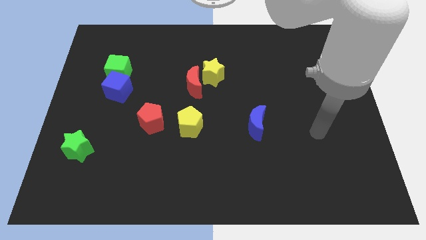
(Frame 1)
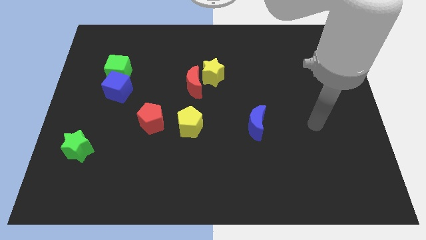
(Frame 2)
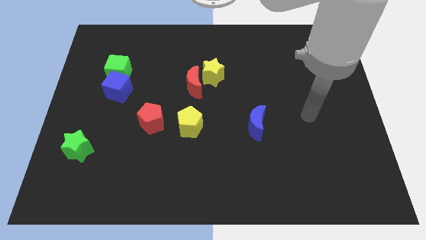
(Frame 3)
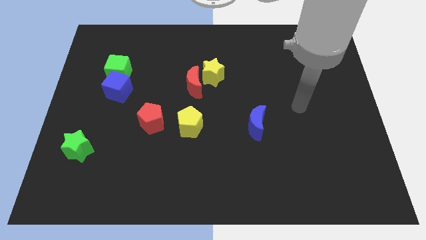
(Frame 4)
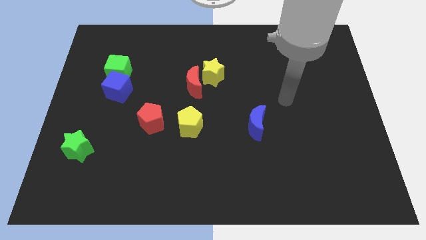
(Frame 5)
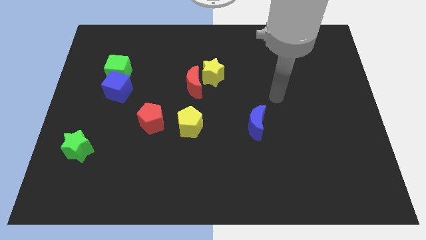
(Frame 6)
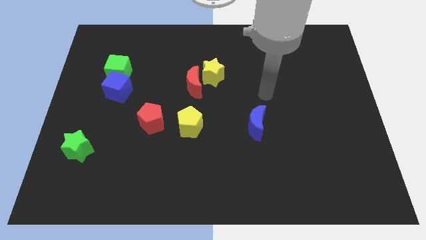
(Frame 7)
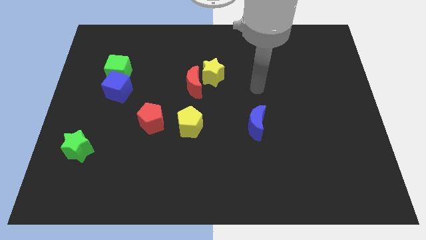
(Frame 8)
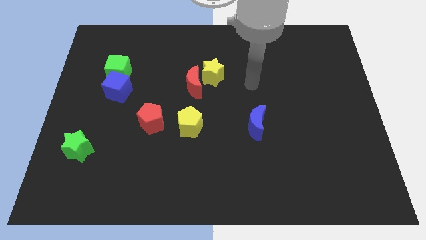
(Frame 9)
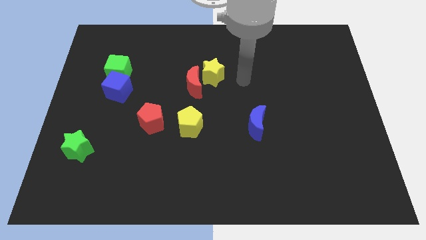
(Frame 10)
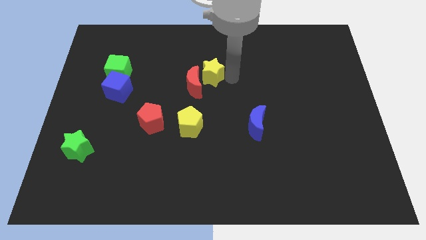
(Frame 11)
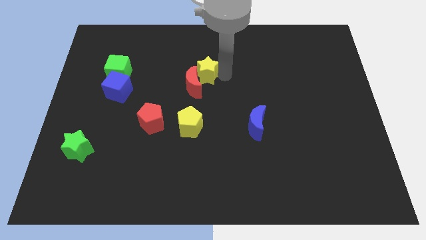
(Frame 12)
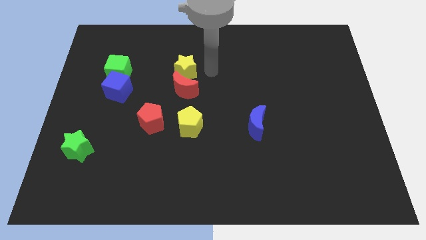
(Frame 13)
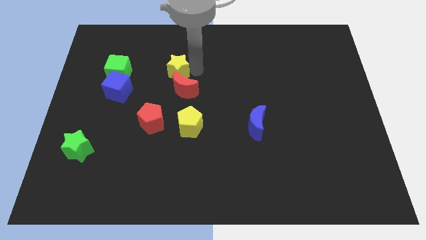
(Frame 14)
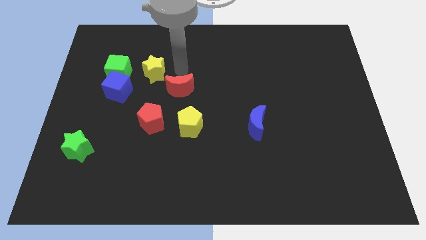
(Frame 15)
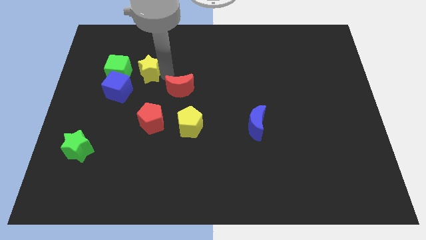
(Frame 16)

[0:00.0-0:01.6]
move the red moon away from the yellow star

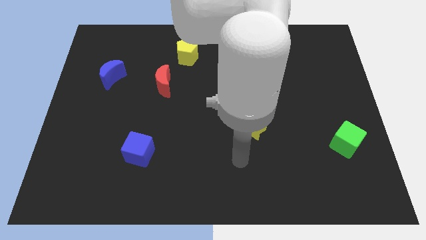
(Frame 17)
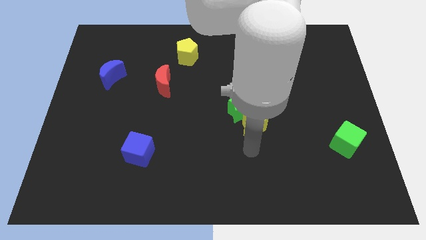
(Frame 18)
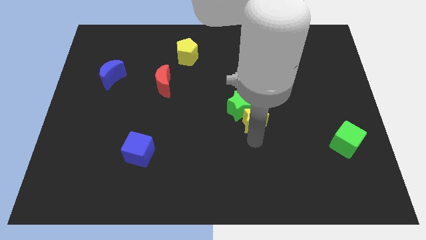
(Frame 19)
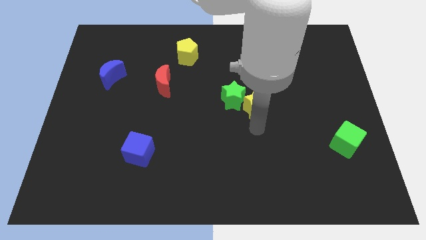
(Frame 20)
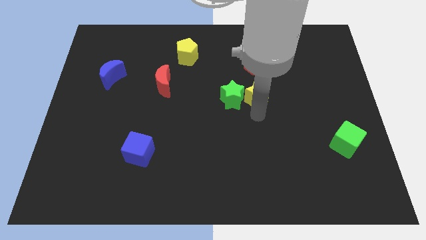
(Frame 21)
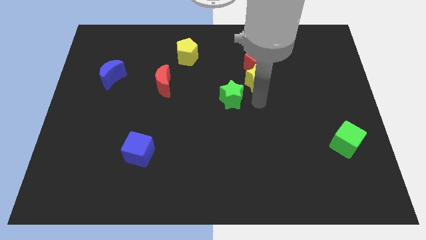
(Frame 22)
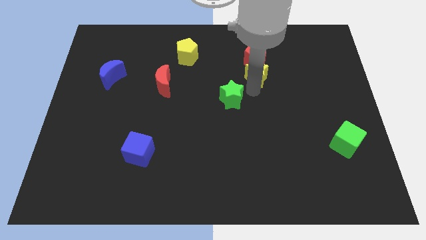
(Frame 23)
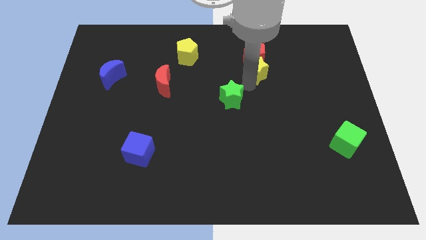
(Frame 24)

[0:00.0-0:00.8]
move the green star away from the yellow star

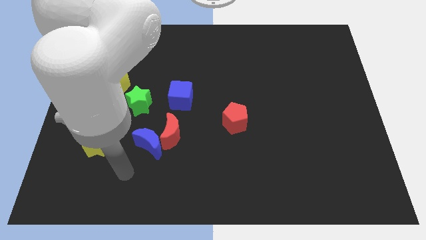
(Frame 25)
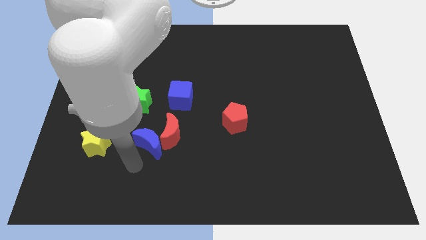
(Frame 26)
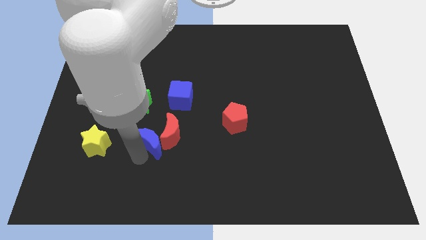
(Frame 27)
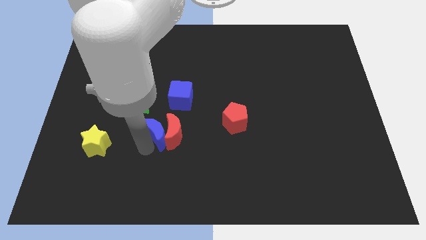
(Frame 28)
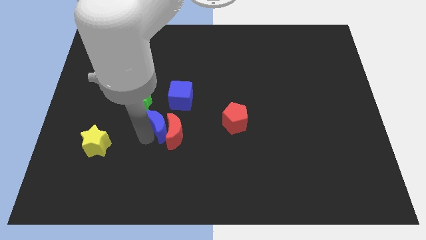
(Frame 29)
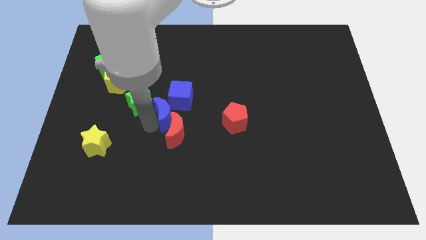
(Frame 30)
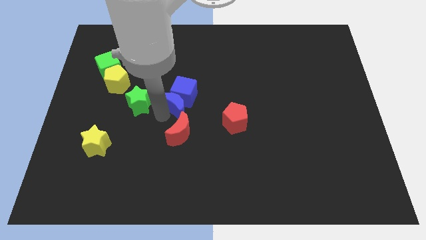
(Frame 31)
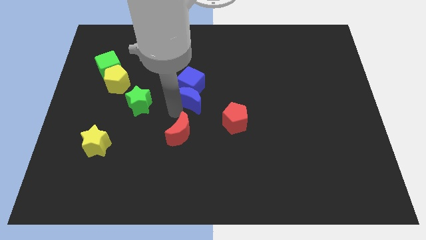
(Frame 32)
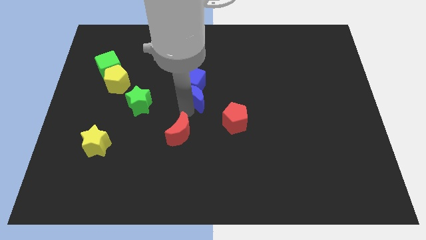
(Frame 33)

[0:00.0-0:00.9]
separate the red moon from the blue moon

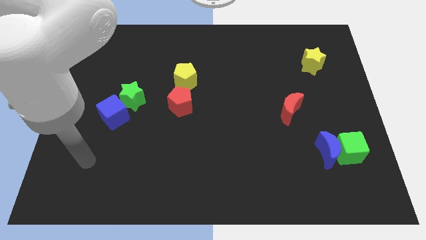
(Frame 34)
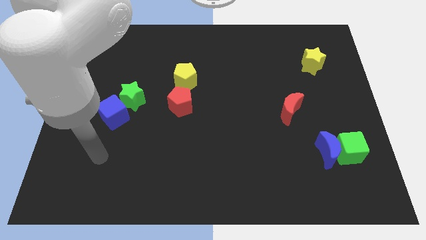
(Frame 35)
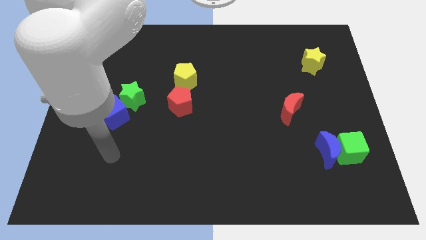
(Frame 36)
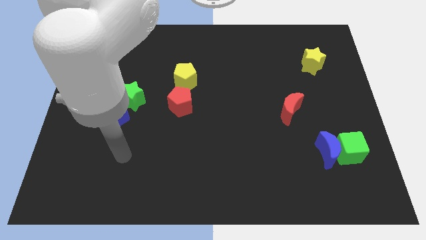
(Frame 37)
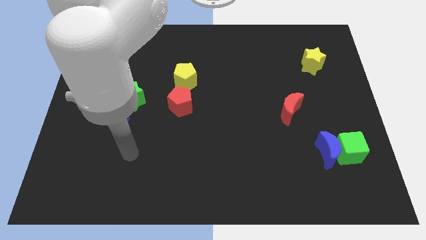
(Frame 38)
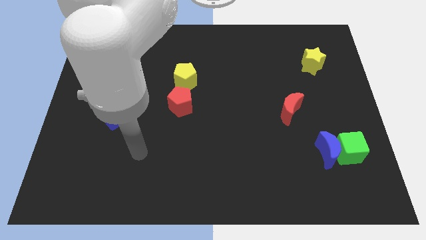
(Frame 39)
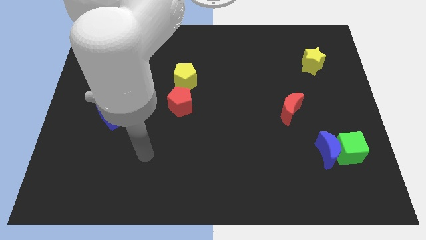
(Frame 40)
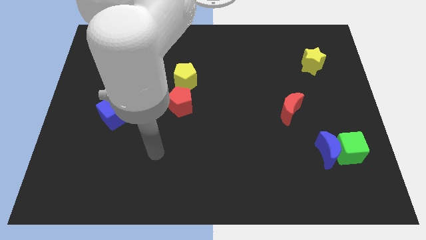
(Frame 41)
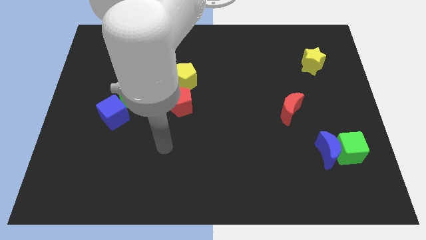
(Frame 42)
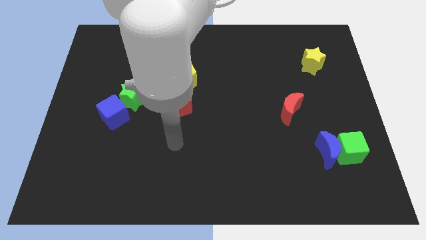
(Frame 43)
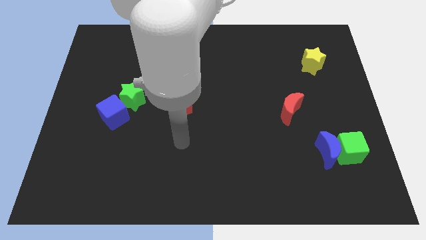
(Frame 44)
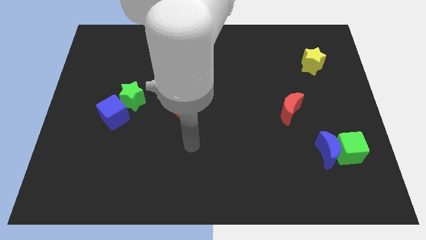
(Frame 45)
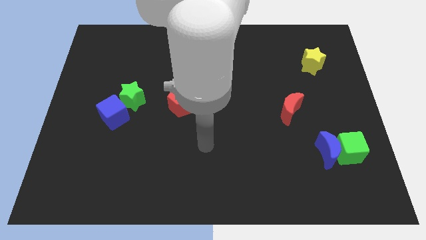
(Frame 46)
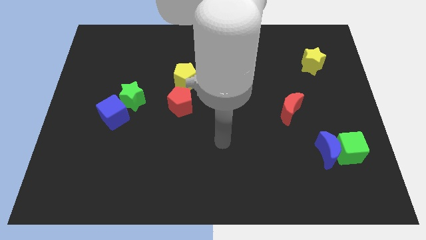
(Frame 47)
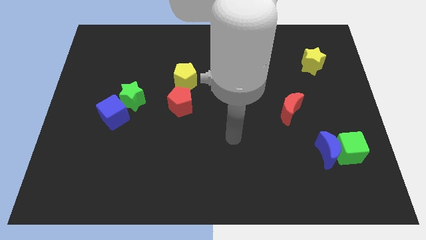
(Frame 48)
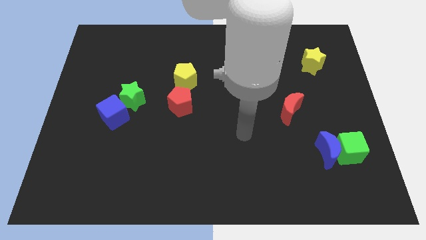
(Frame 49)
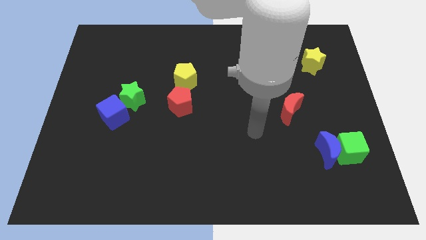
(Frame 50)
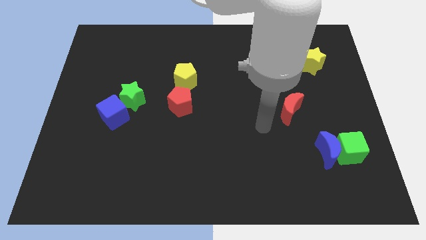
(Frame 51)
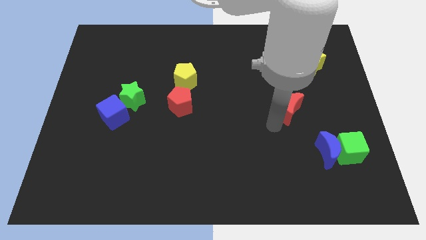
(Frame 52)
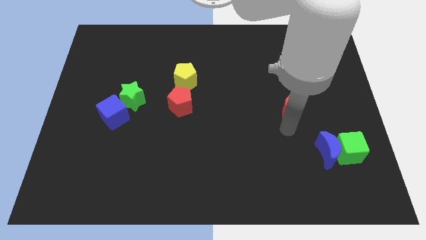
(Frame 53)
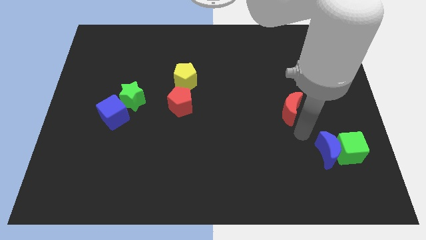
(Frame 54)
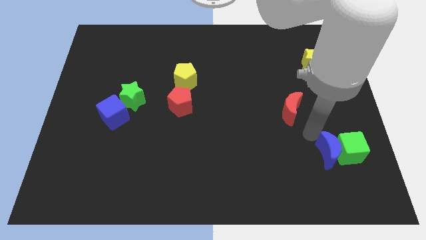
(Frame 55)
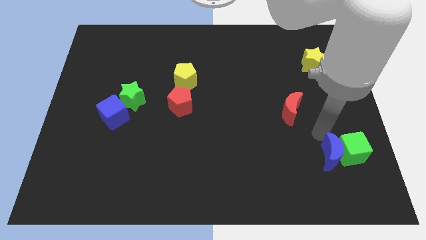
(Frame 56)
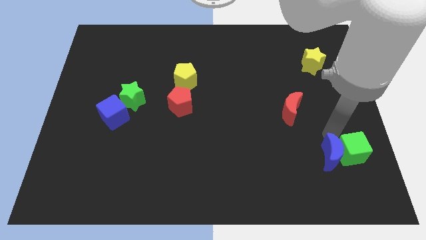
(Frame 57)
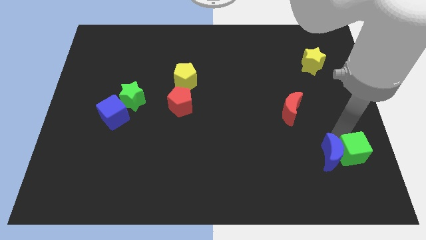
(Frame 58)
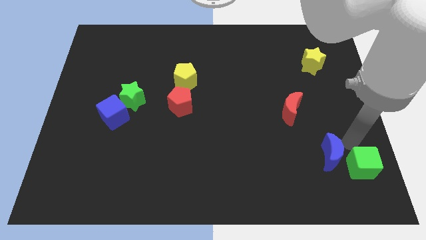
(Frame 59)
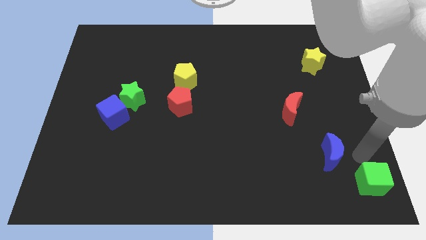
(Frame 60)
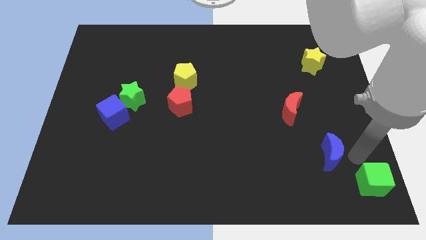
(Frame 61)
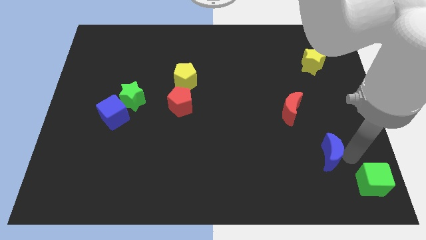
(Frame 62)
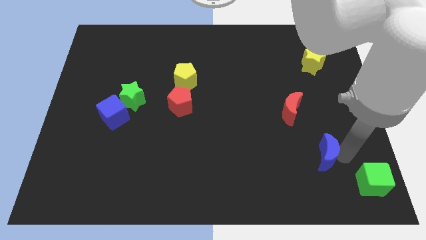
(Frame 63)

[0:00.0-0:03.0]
pull the blue moon apart from the green cube

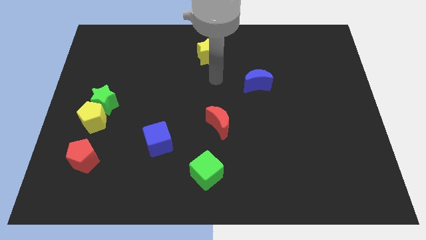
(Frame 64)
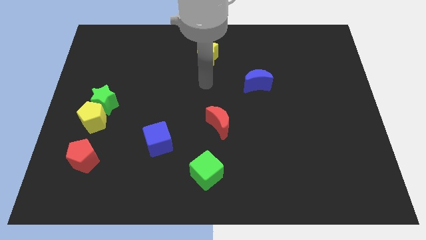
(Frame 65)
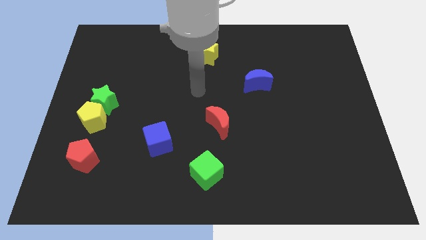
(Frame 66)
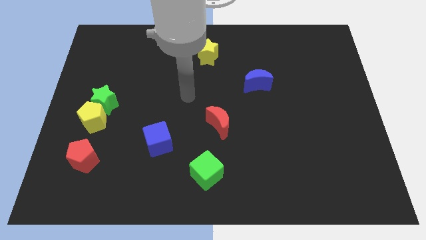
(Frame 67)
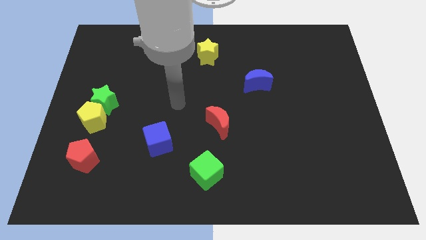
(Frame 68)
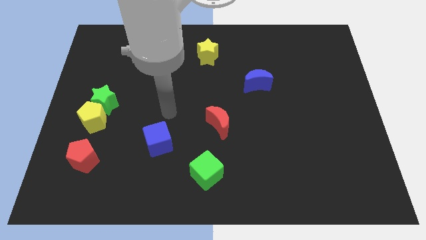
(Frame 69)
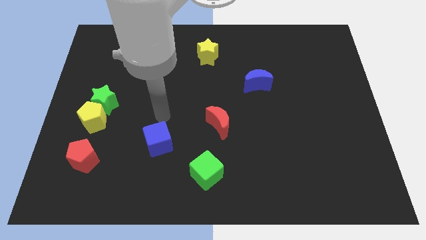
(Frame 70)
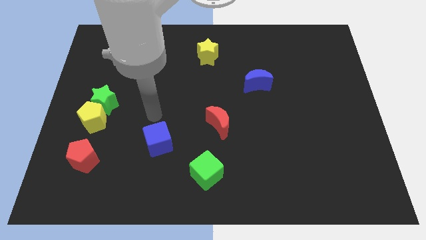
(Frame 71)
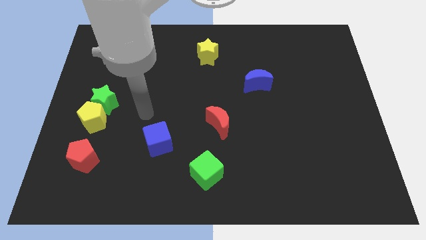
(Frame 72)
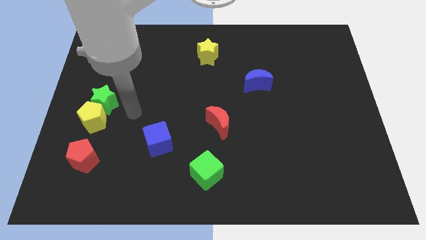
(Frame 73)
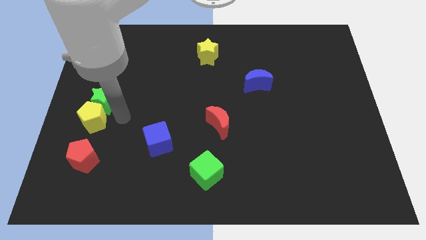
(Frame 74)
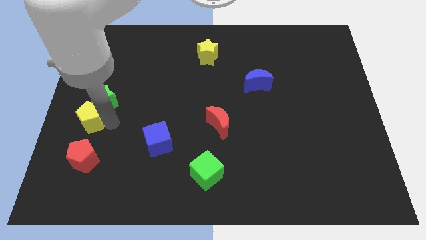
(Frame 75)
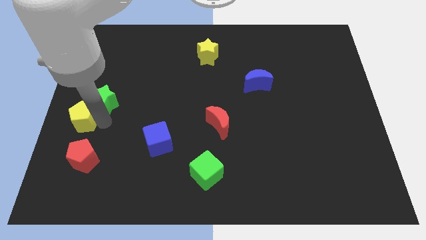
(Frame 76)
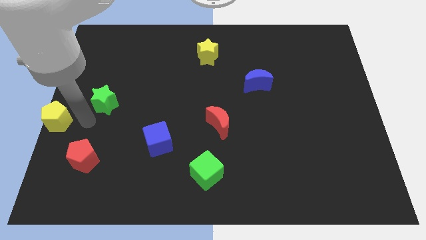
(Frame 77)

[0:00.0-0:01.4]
move the green star away from the yellow pentagon

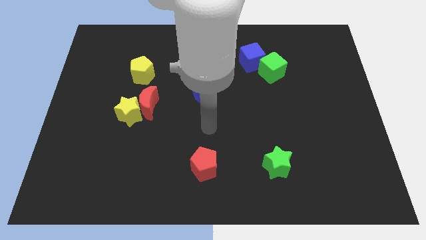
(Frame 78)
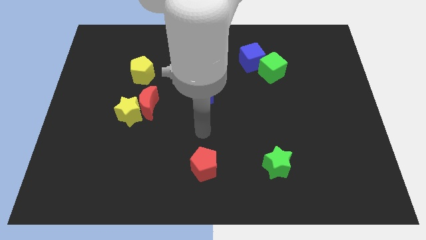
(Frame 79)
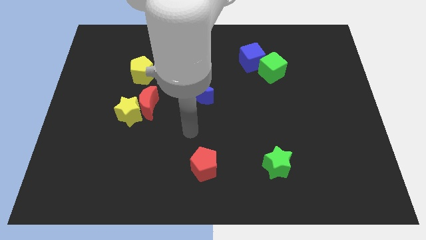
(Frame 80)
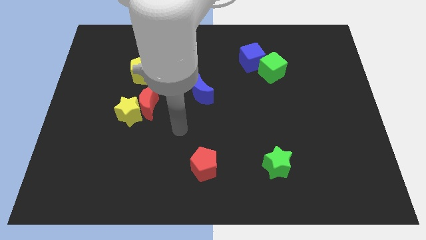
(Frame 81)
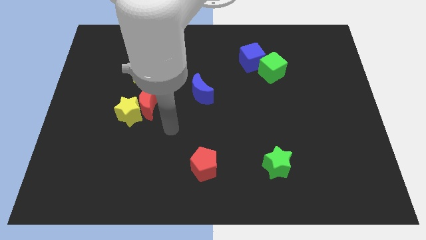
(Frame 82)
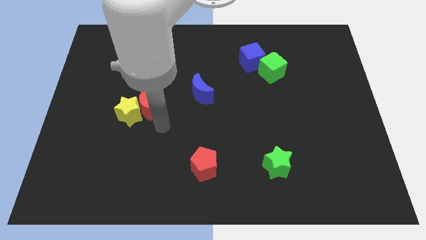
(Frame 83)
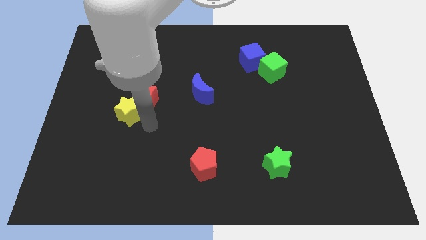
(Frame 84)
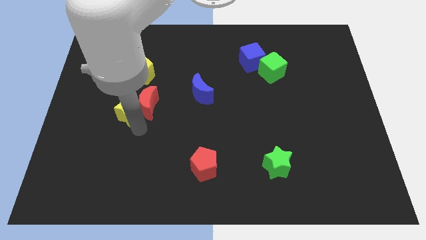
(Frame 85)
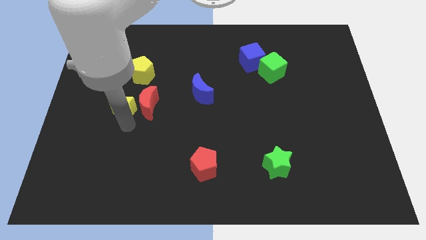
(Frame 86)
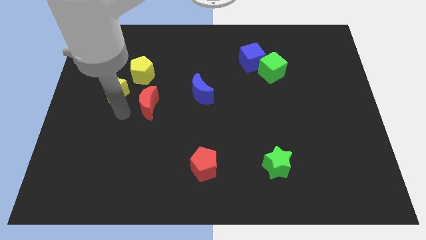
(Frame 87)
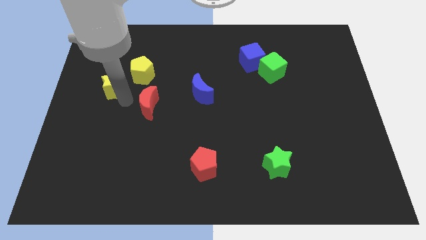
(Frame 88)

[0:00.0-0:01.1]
pull the red moon apart from the yellow star

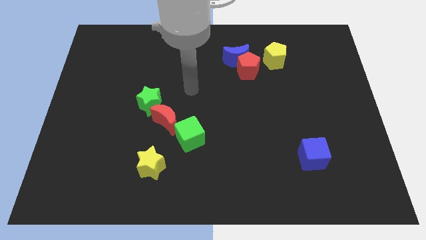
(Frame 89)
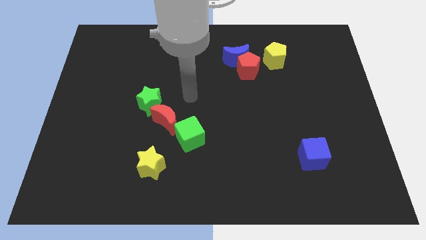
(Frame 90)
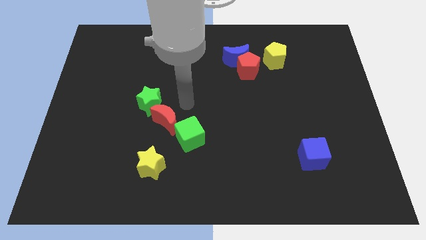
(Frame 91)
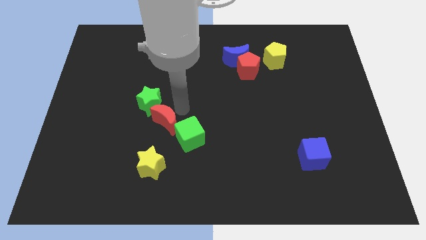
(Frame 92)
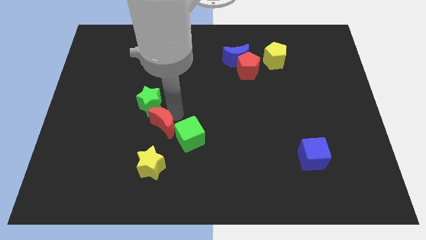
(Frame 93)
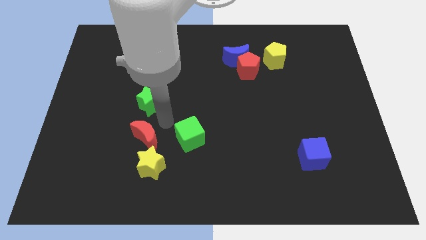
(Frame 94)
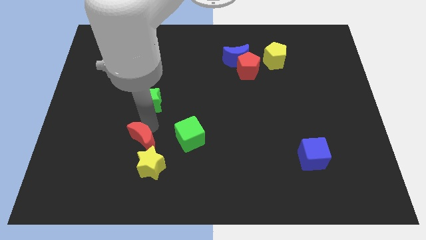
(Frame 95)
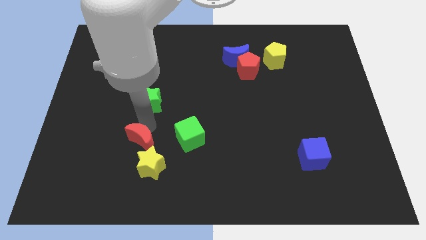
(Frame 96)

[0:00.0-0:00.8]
pull the green star apart from the red moon
